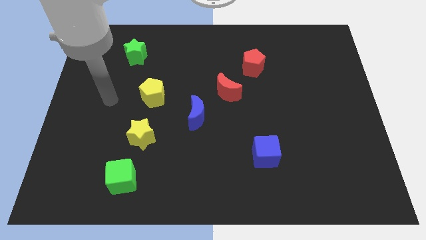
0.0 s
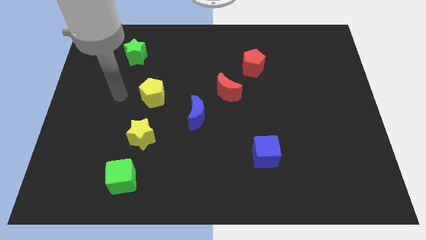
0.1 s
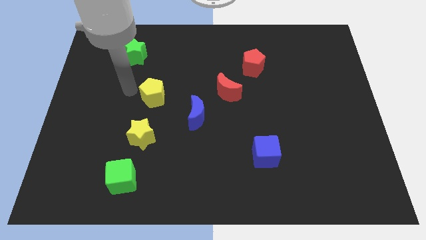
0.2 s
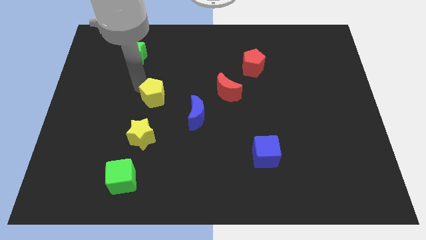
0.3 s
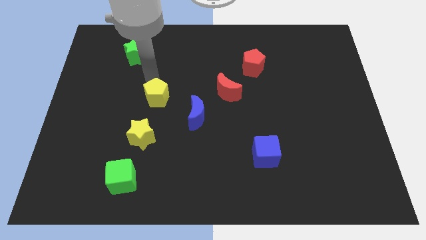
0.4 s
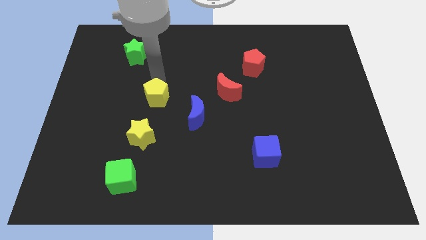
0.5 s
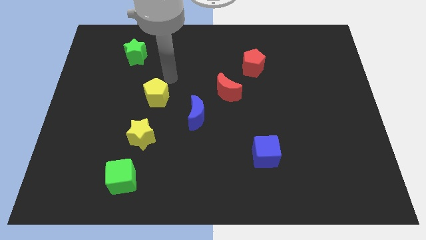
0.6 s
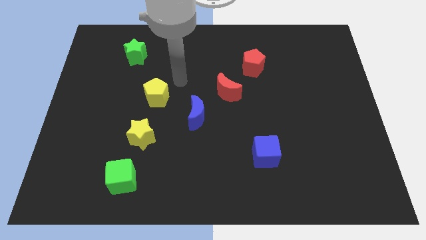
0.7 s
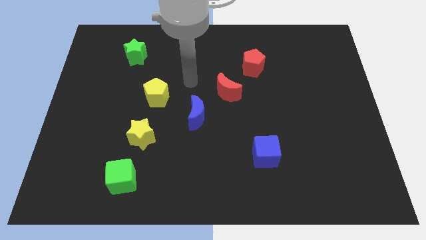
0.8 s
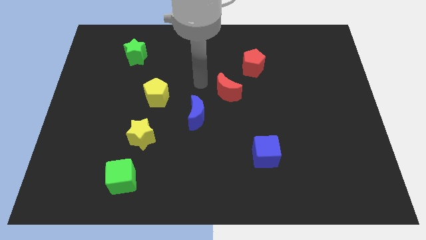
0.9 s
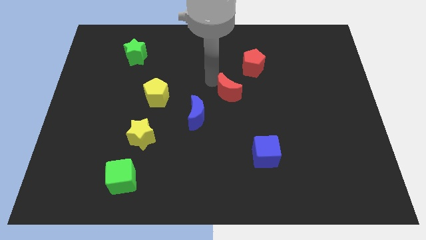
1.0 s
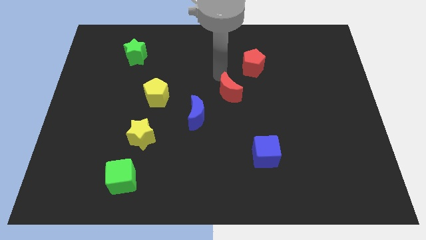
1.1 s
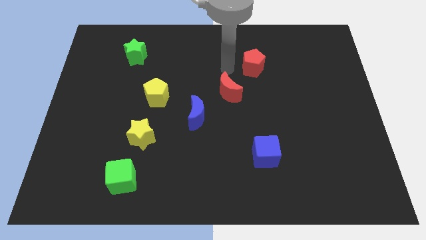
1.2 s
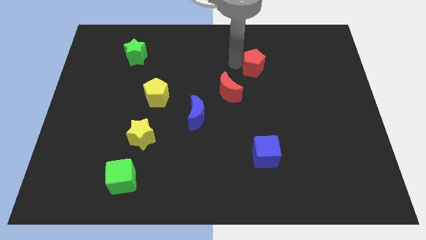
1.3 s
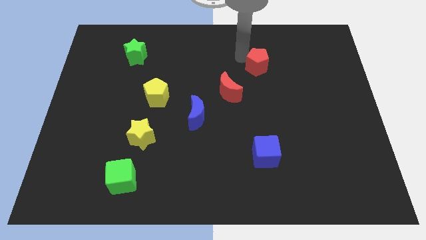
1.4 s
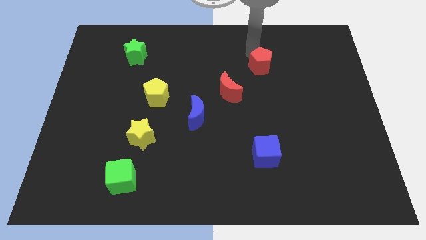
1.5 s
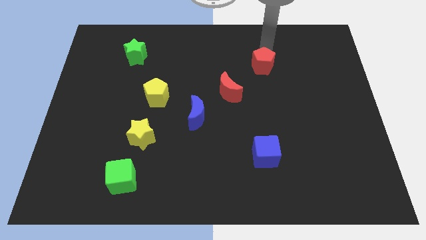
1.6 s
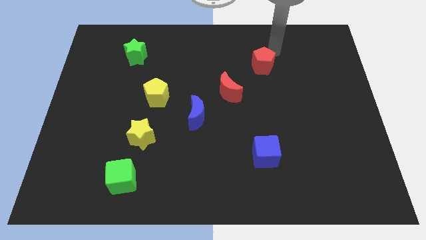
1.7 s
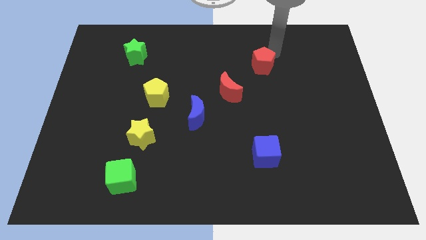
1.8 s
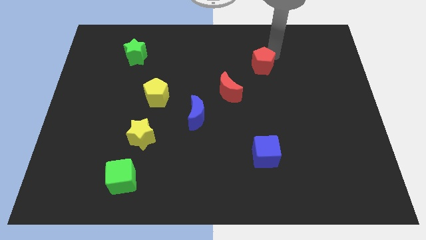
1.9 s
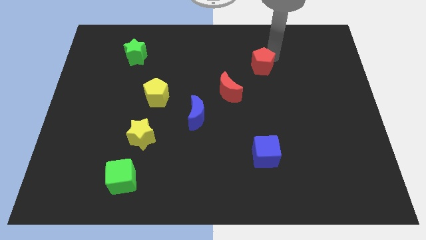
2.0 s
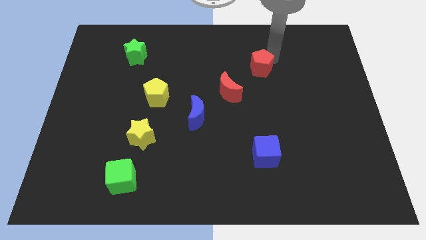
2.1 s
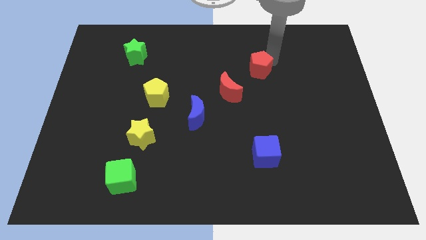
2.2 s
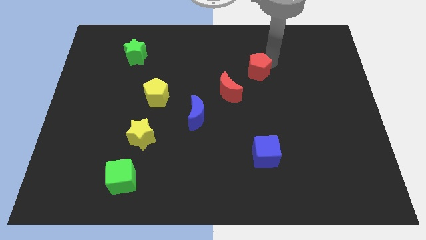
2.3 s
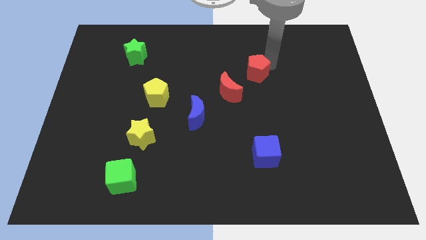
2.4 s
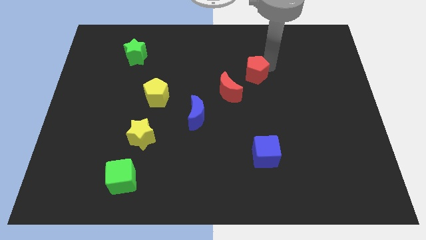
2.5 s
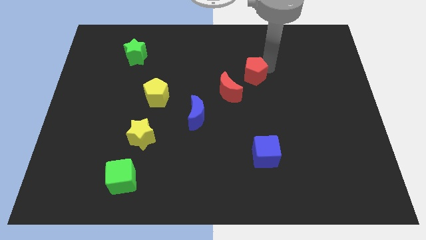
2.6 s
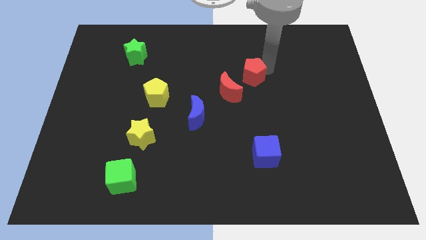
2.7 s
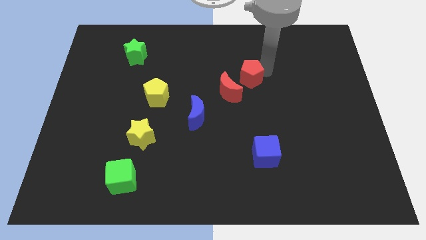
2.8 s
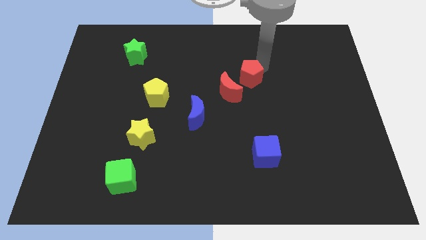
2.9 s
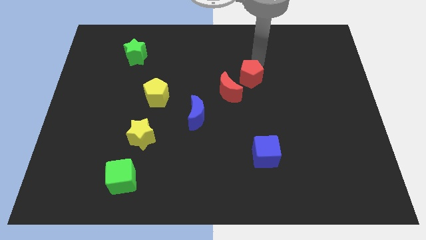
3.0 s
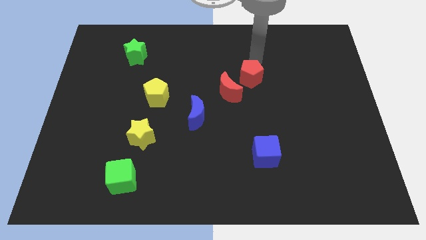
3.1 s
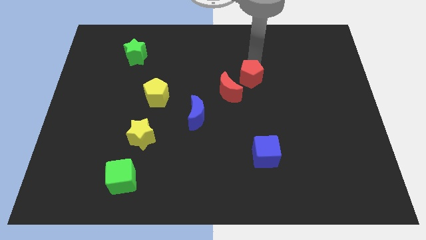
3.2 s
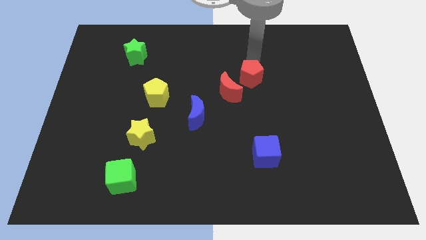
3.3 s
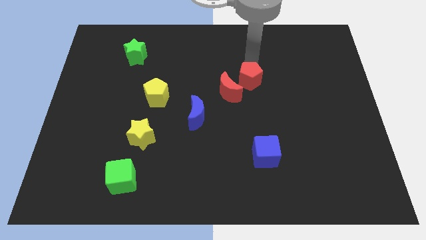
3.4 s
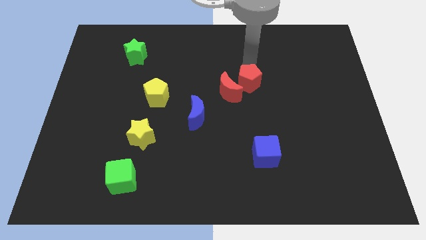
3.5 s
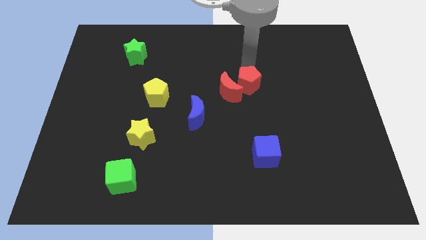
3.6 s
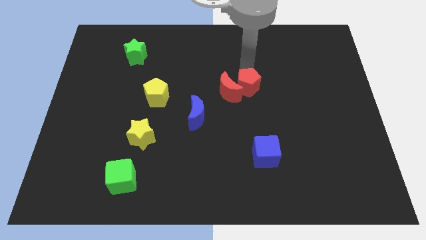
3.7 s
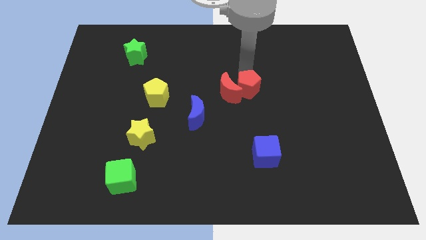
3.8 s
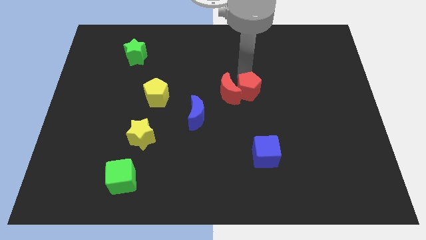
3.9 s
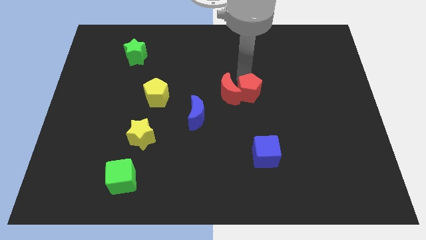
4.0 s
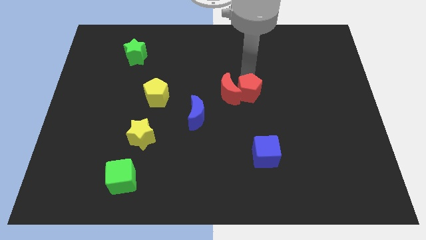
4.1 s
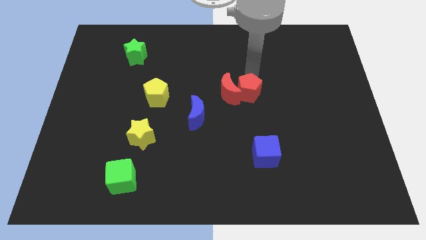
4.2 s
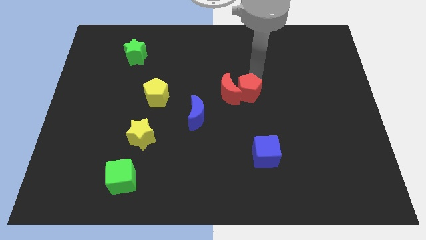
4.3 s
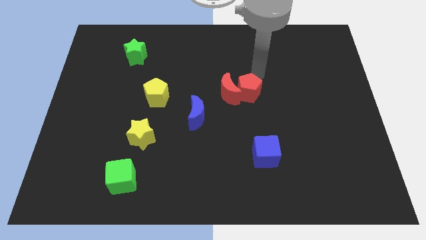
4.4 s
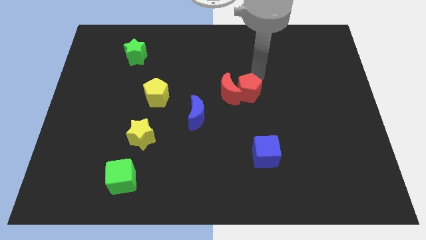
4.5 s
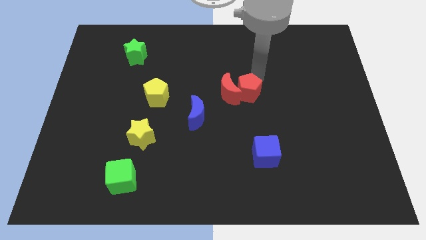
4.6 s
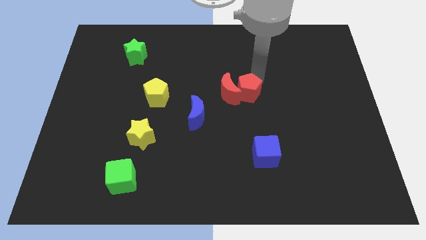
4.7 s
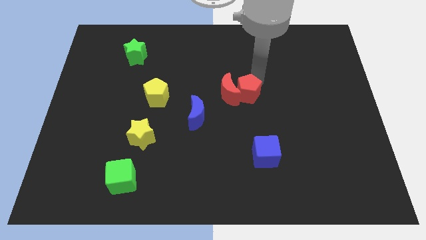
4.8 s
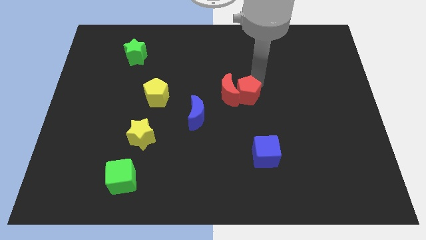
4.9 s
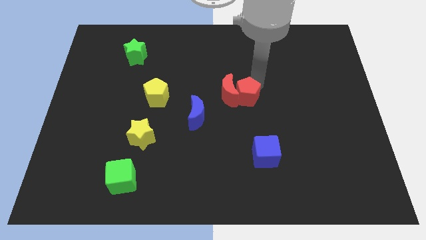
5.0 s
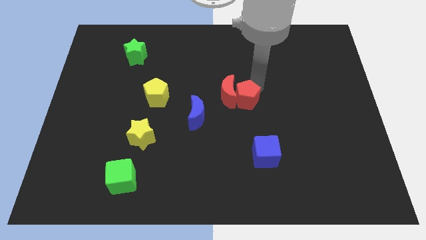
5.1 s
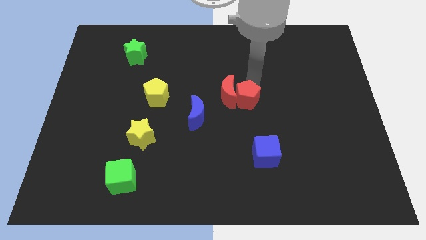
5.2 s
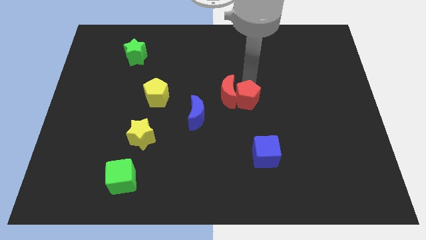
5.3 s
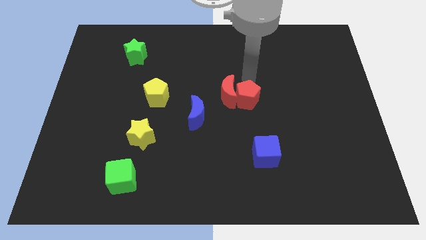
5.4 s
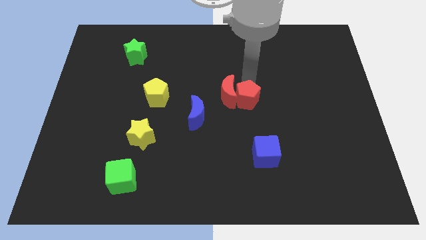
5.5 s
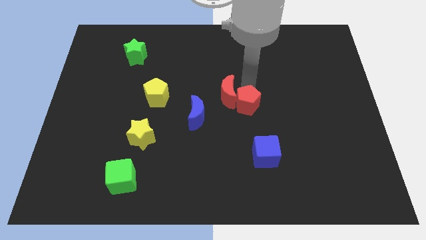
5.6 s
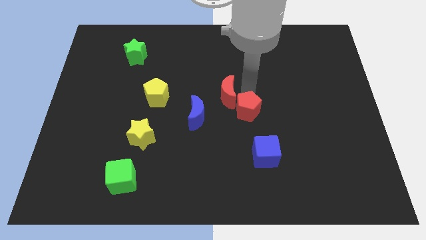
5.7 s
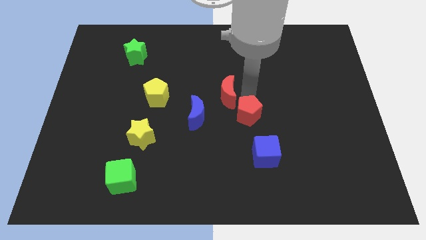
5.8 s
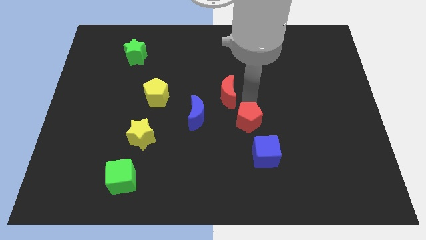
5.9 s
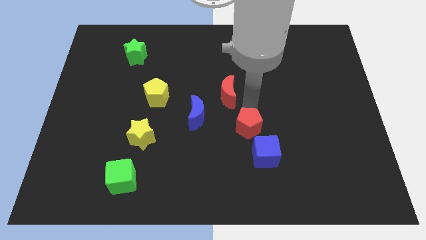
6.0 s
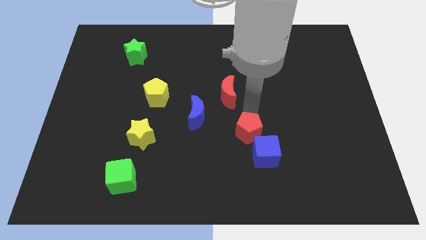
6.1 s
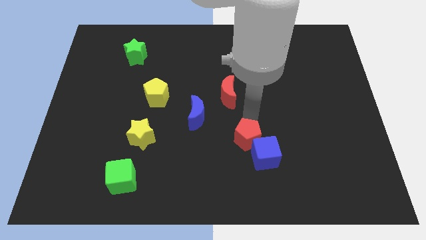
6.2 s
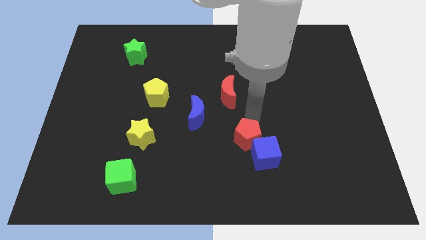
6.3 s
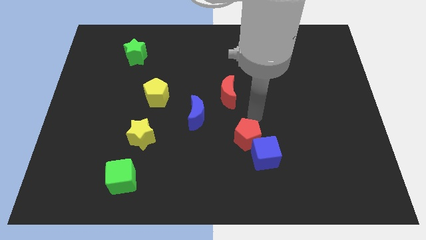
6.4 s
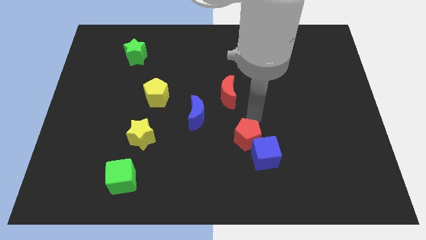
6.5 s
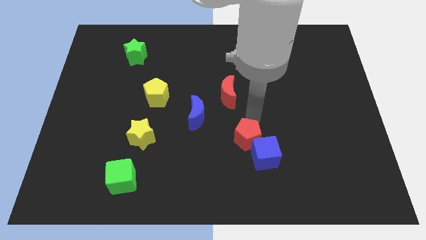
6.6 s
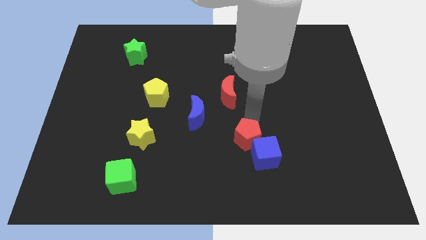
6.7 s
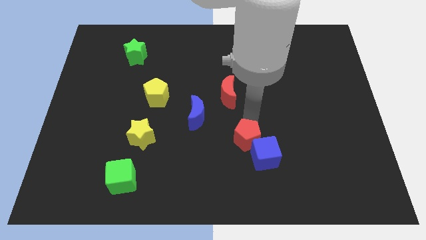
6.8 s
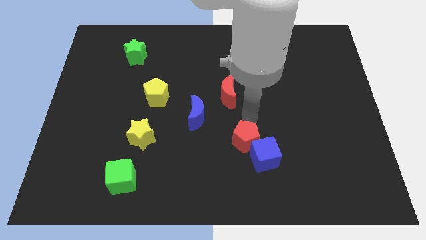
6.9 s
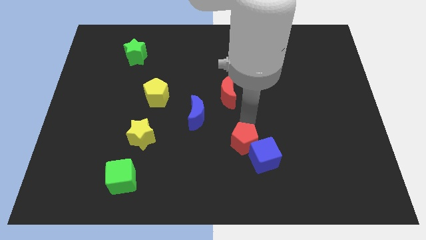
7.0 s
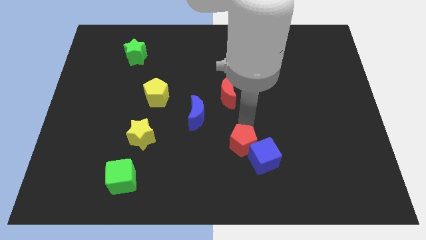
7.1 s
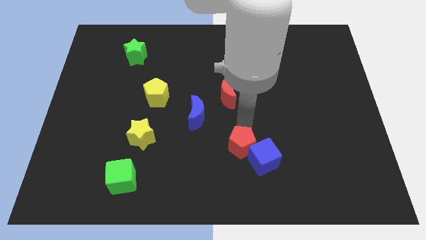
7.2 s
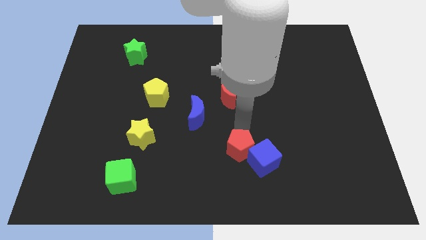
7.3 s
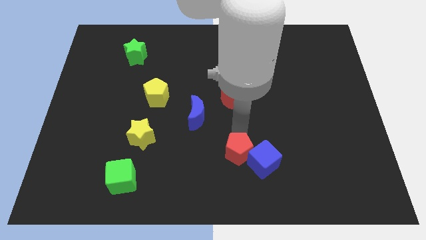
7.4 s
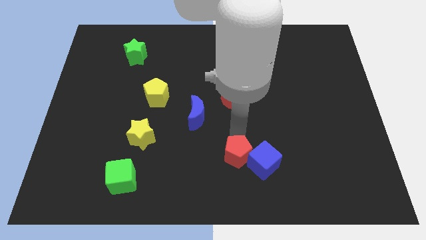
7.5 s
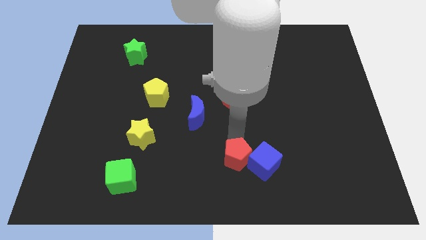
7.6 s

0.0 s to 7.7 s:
put the red pentagon to the bottom

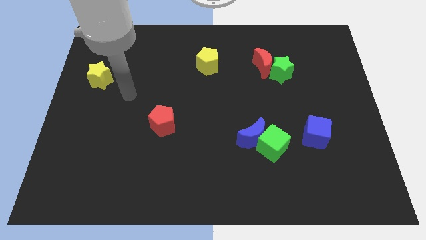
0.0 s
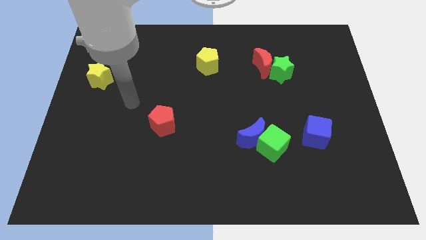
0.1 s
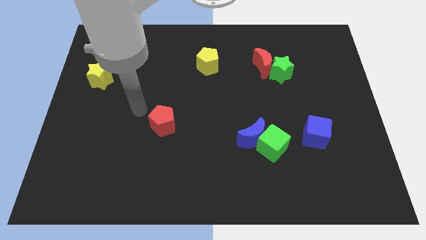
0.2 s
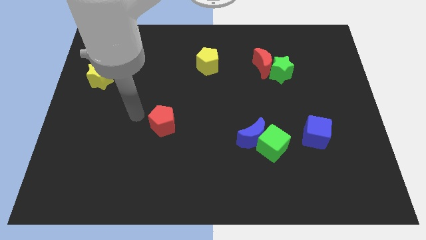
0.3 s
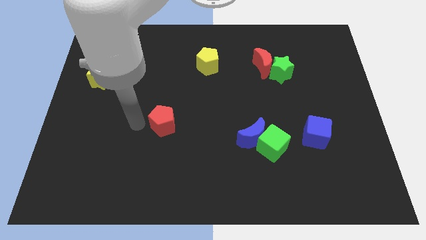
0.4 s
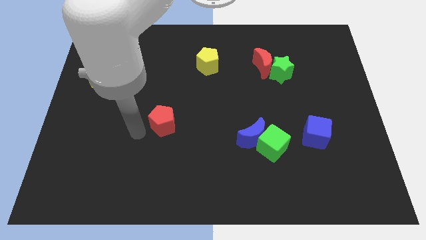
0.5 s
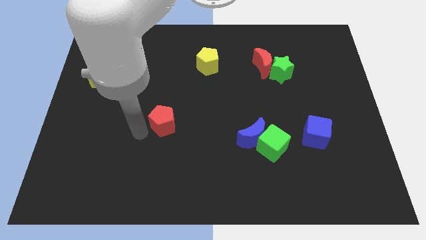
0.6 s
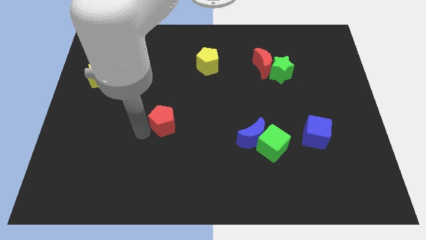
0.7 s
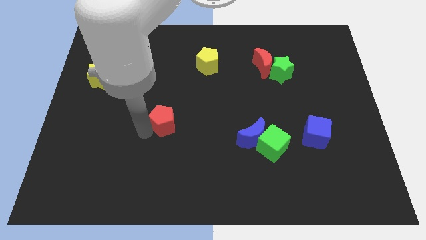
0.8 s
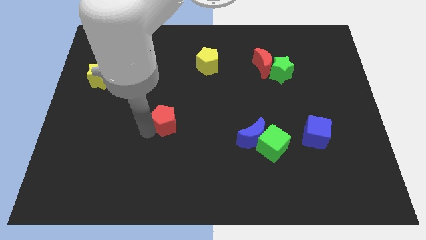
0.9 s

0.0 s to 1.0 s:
put the red pentagon to the center of the board
